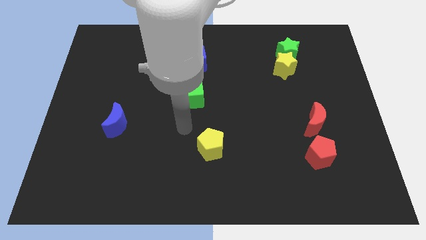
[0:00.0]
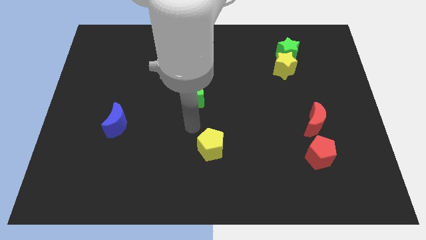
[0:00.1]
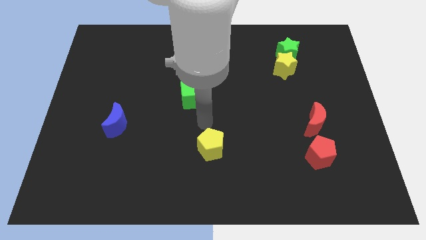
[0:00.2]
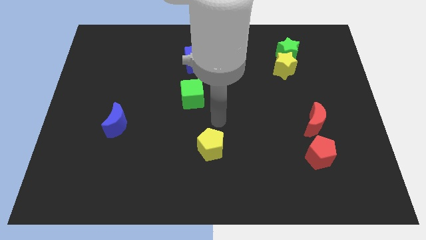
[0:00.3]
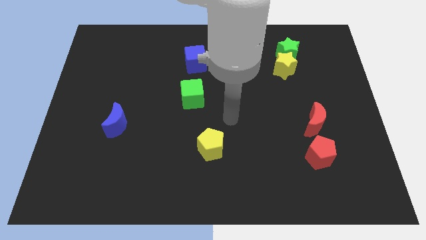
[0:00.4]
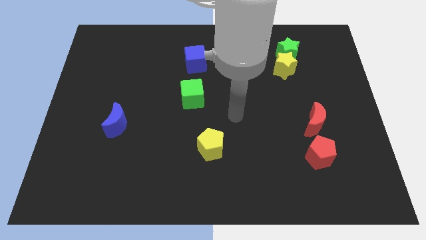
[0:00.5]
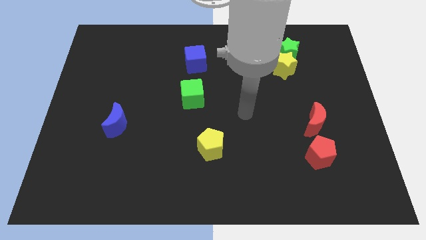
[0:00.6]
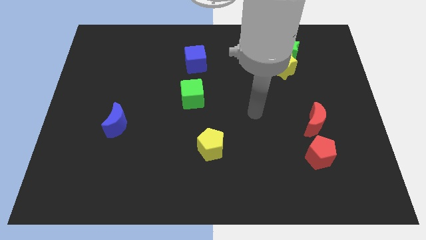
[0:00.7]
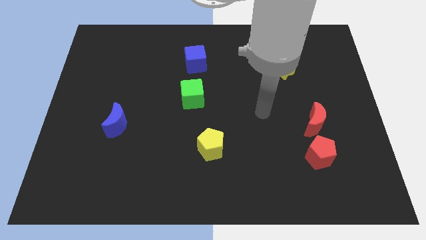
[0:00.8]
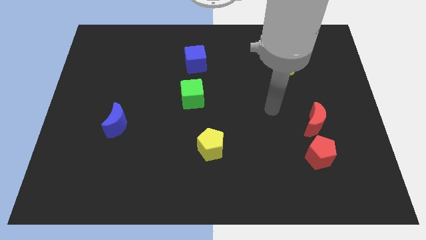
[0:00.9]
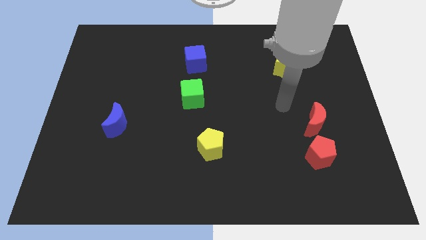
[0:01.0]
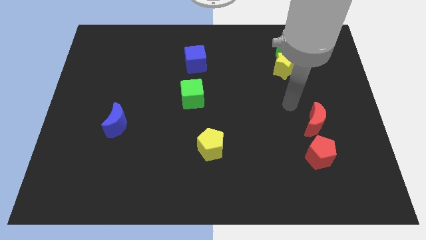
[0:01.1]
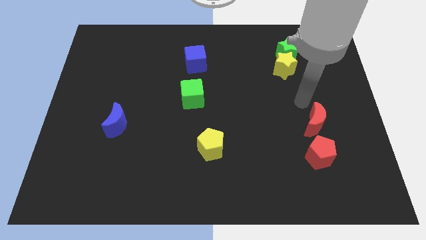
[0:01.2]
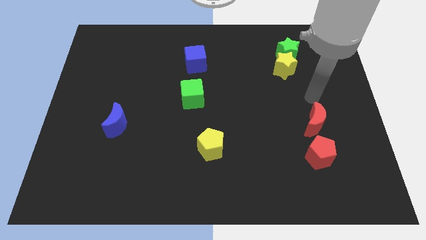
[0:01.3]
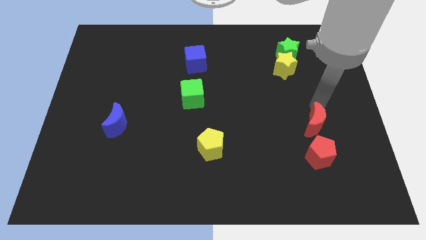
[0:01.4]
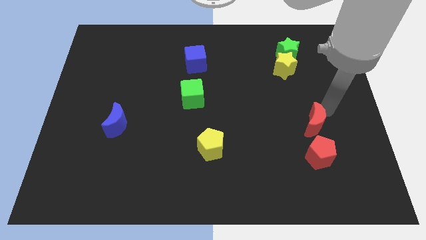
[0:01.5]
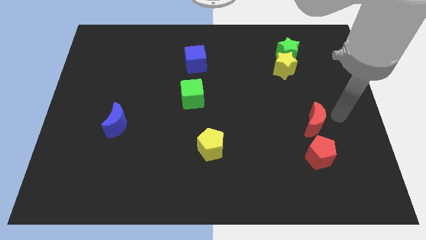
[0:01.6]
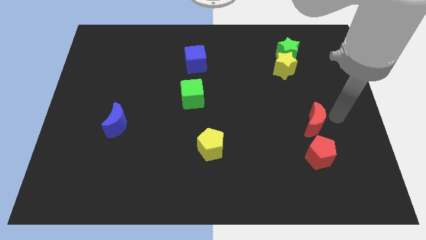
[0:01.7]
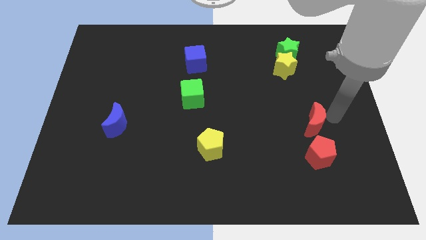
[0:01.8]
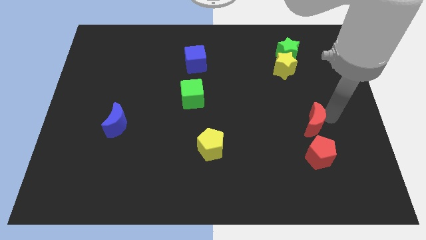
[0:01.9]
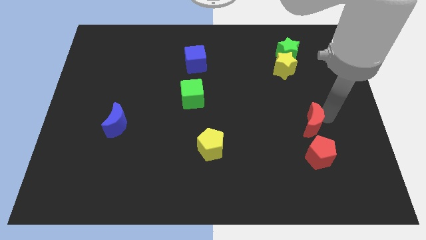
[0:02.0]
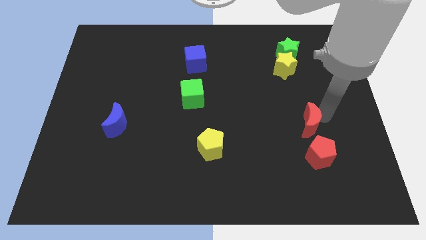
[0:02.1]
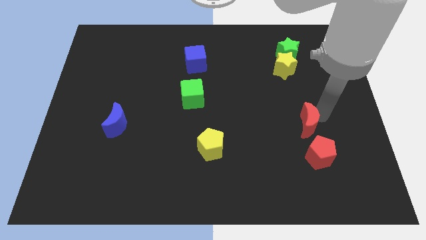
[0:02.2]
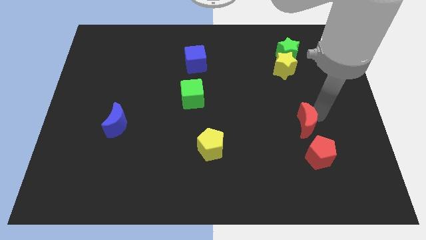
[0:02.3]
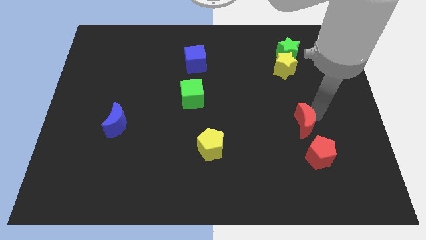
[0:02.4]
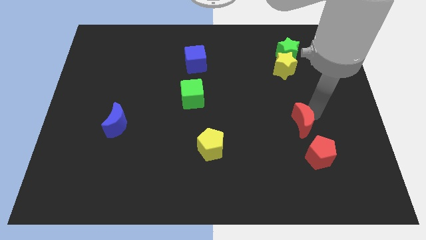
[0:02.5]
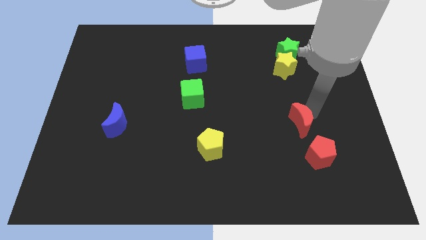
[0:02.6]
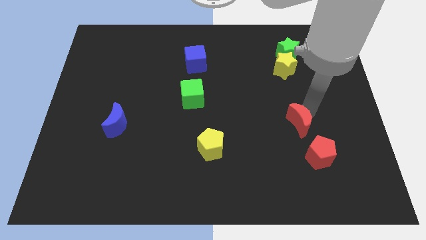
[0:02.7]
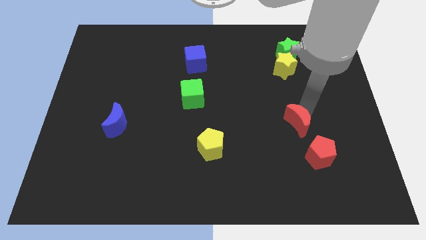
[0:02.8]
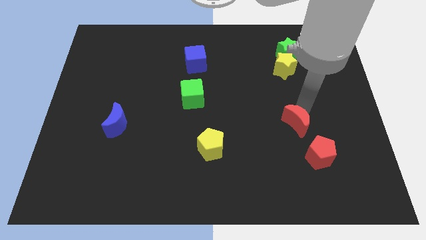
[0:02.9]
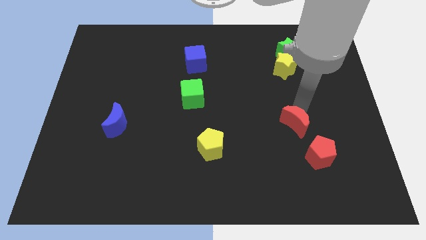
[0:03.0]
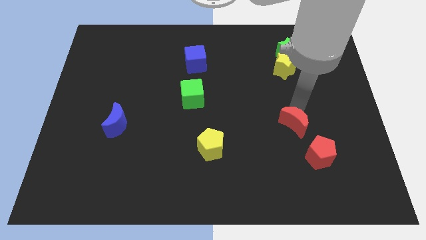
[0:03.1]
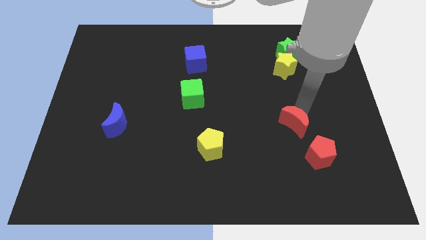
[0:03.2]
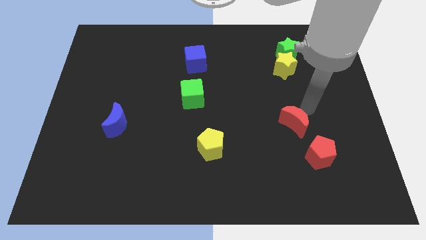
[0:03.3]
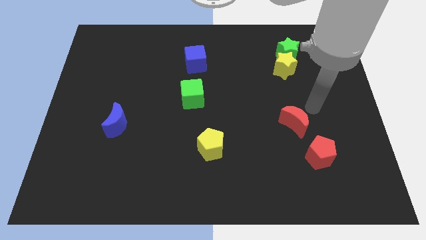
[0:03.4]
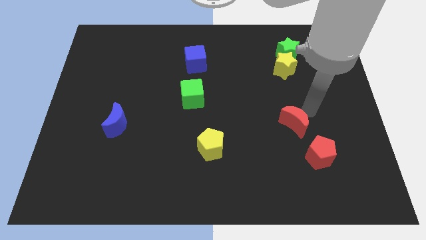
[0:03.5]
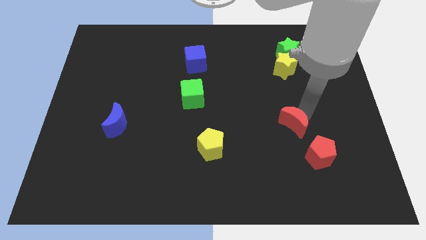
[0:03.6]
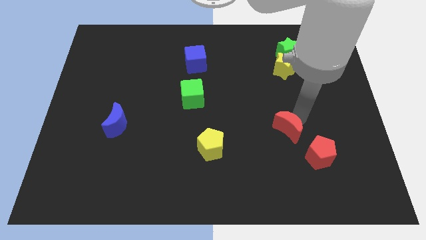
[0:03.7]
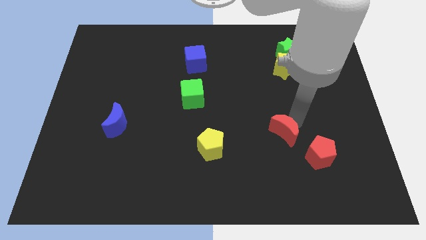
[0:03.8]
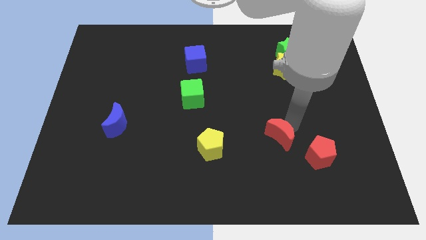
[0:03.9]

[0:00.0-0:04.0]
push the red moon slightly diagonally downwards and left

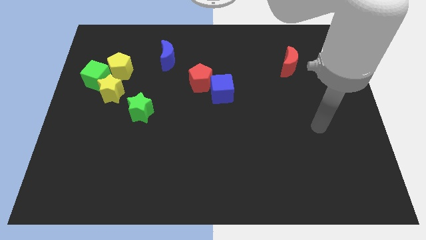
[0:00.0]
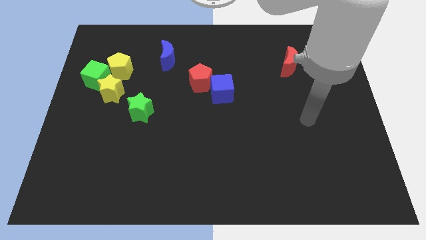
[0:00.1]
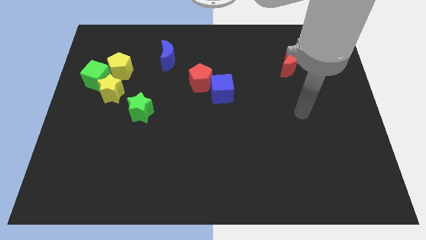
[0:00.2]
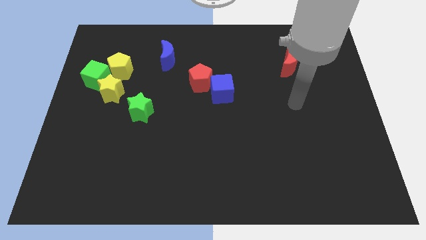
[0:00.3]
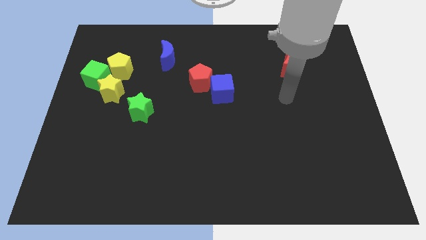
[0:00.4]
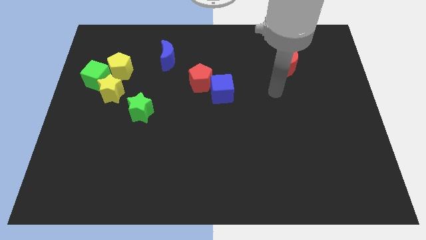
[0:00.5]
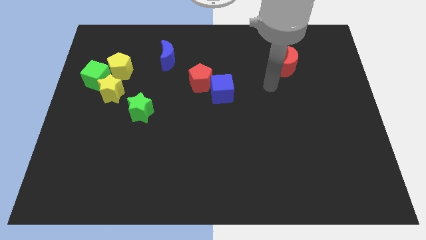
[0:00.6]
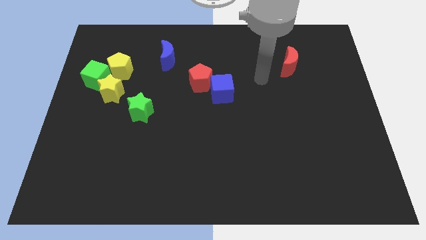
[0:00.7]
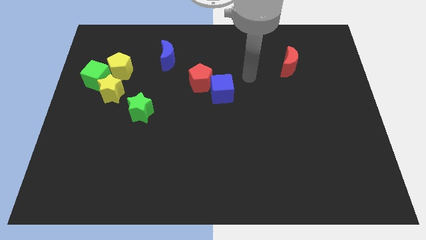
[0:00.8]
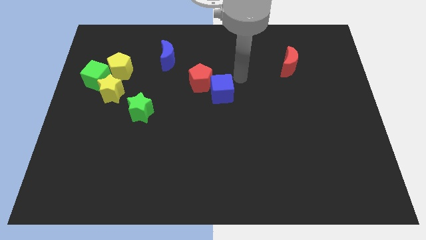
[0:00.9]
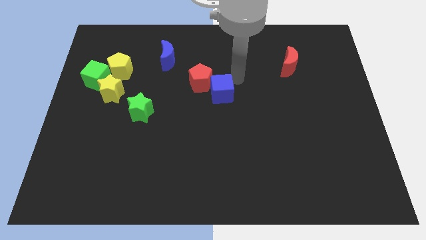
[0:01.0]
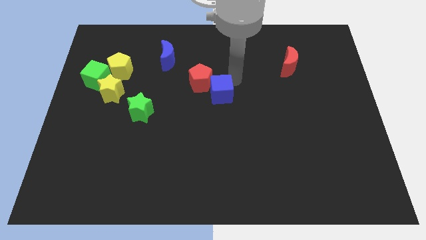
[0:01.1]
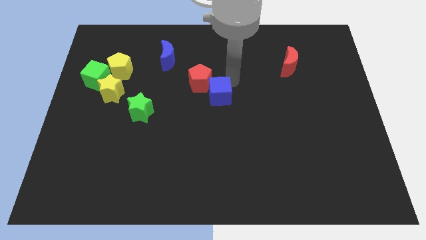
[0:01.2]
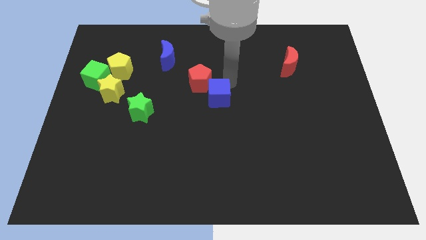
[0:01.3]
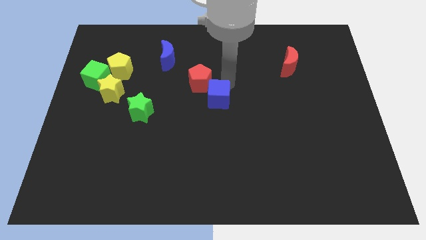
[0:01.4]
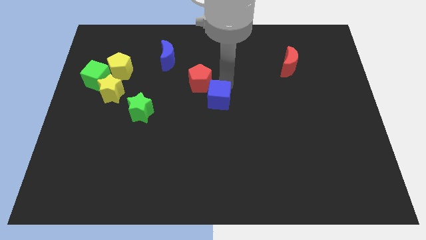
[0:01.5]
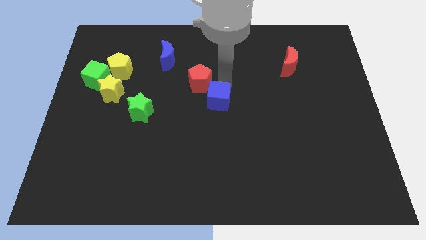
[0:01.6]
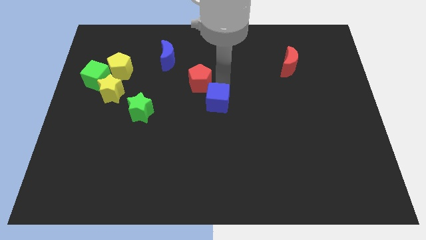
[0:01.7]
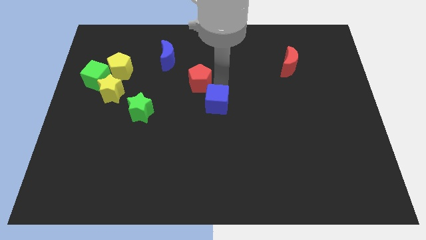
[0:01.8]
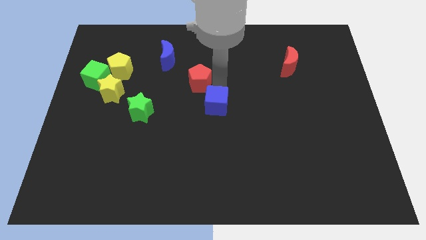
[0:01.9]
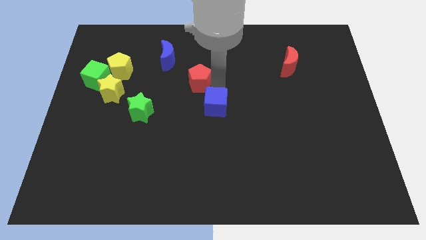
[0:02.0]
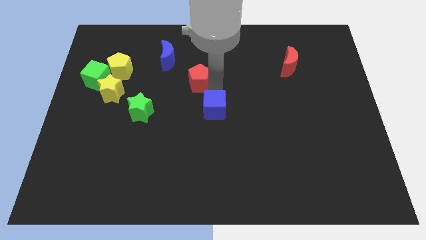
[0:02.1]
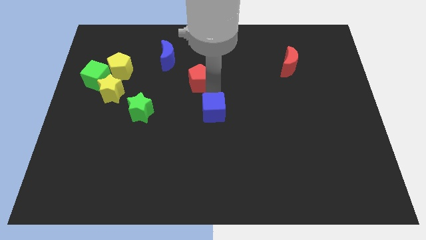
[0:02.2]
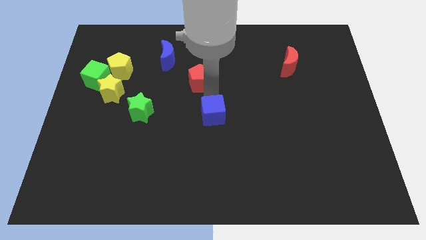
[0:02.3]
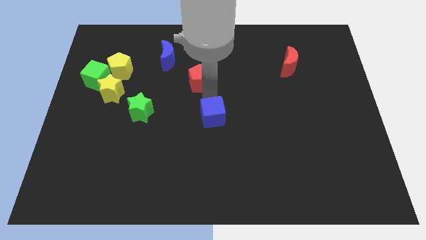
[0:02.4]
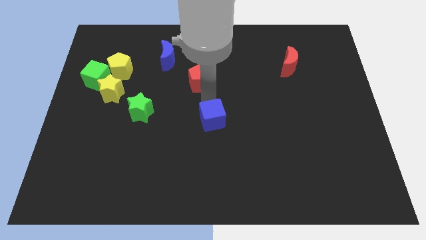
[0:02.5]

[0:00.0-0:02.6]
slide the blue cube diagonally downwards and to the left a little

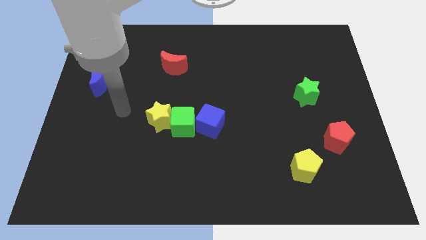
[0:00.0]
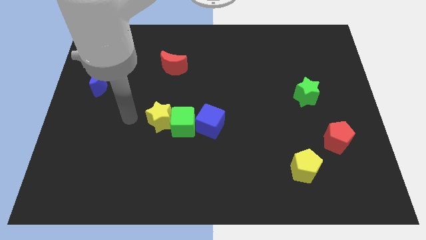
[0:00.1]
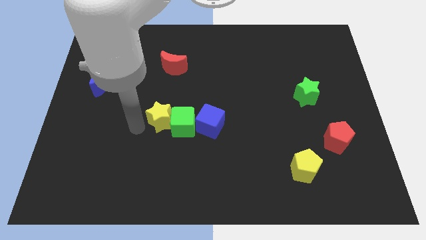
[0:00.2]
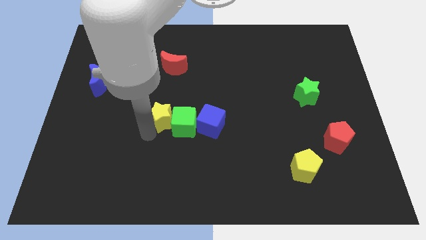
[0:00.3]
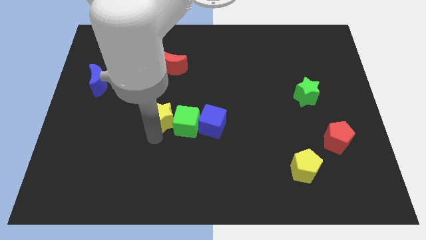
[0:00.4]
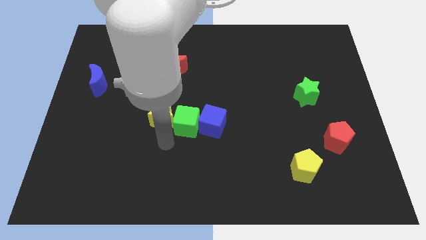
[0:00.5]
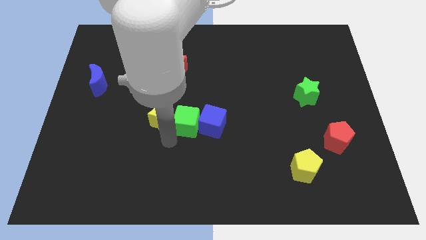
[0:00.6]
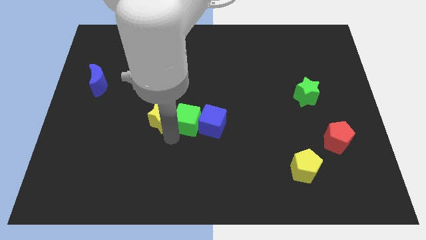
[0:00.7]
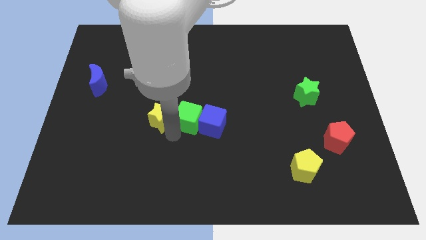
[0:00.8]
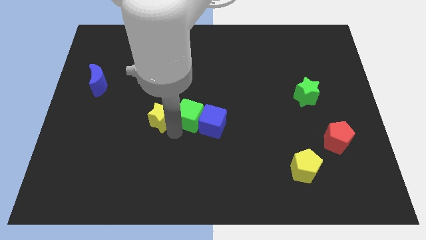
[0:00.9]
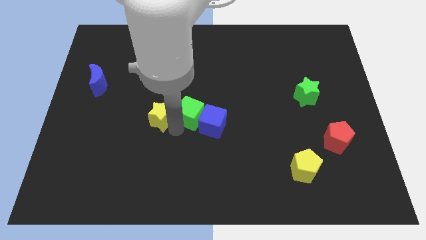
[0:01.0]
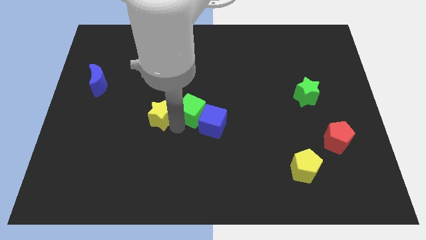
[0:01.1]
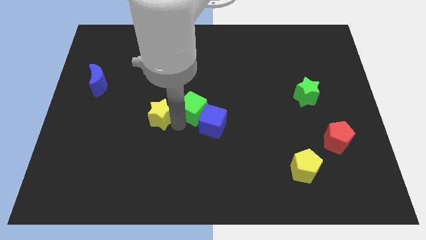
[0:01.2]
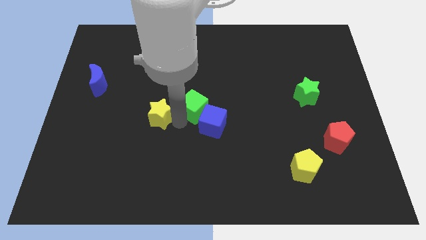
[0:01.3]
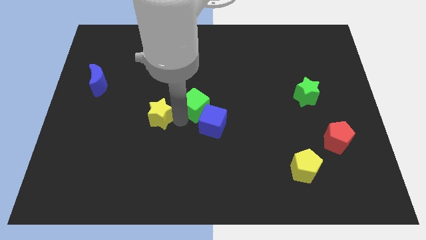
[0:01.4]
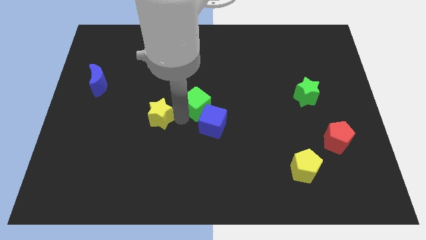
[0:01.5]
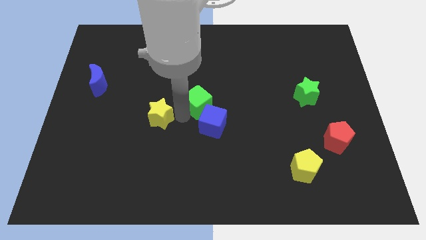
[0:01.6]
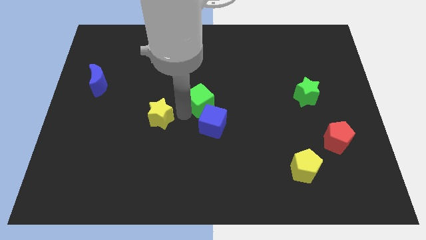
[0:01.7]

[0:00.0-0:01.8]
slightly move the green cube up and then right
